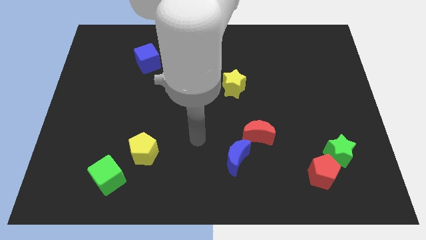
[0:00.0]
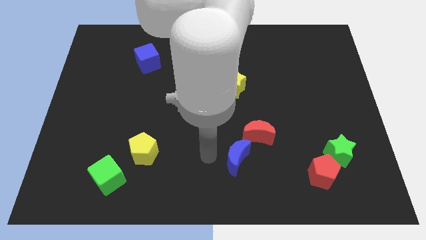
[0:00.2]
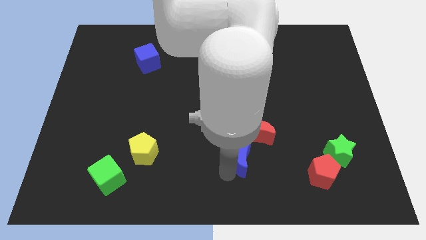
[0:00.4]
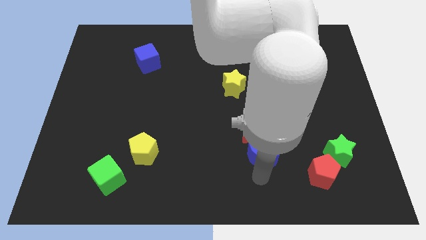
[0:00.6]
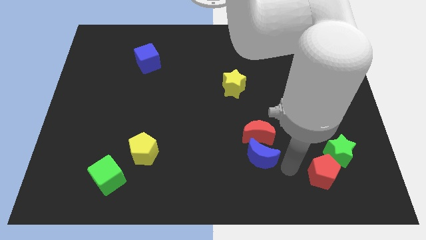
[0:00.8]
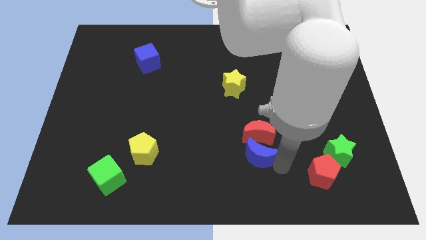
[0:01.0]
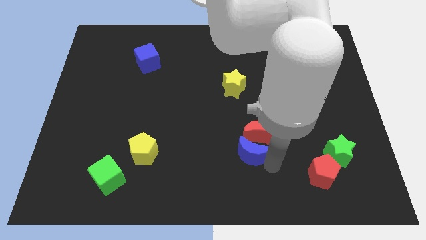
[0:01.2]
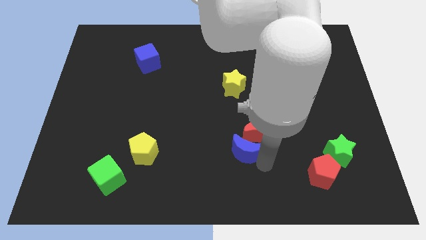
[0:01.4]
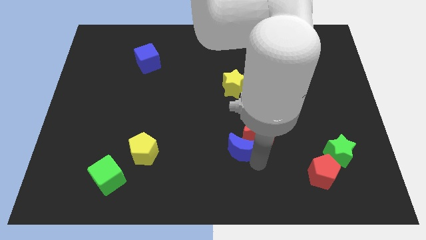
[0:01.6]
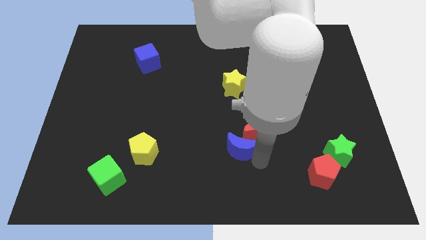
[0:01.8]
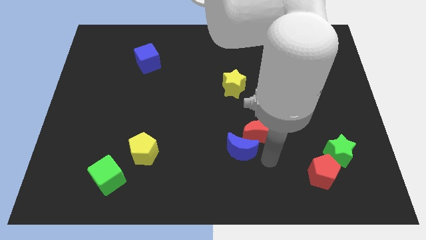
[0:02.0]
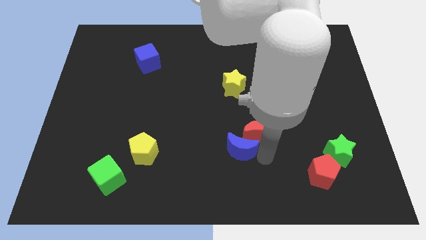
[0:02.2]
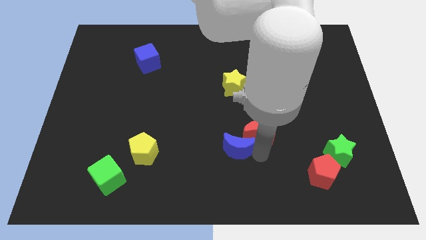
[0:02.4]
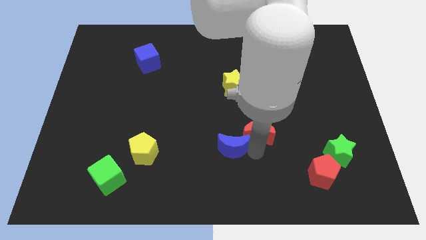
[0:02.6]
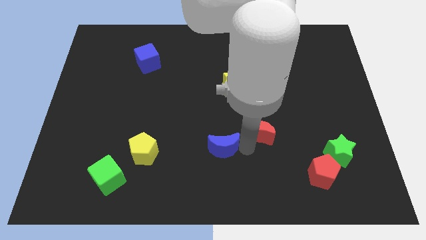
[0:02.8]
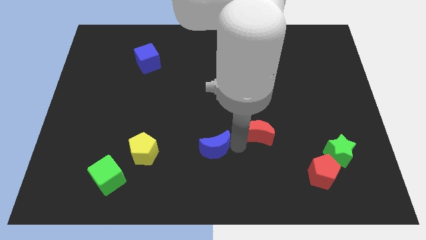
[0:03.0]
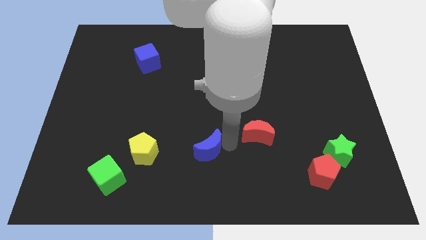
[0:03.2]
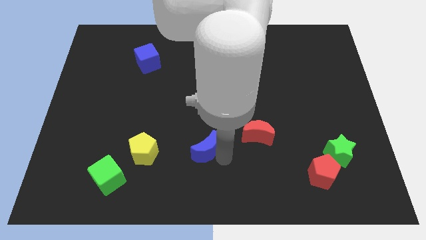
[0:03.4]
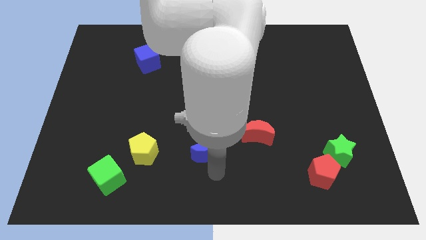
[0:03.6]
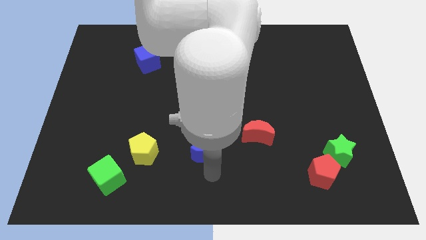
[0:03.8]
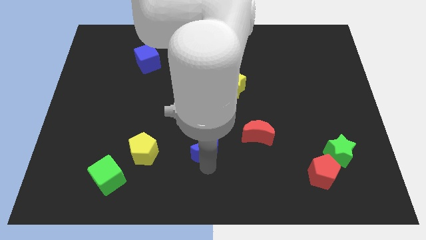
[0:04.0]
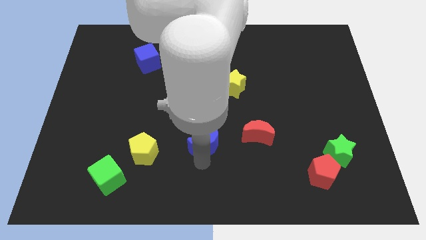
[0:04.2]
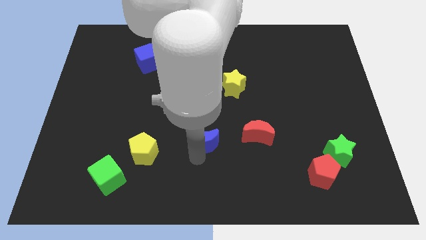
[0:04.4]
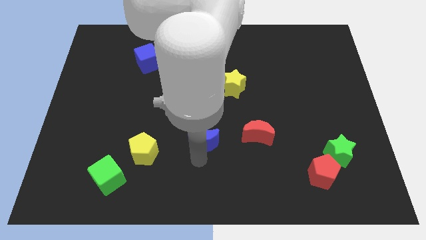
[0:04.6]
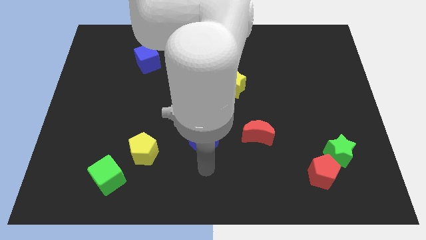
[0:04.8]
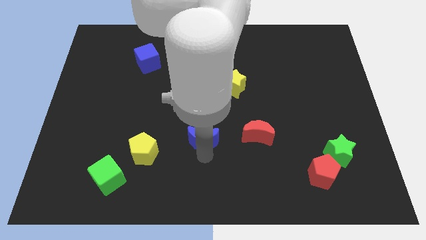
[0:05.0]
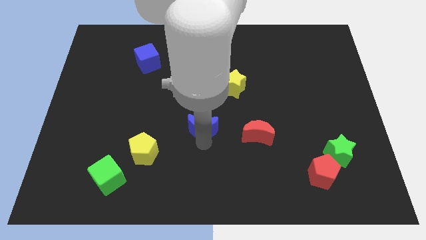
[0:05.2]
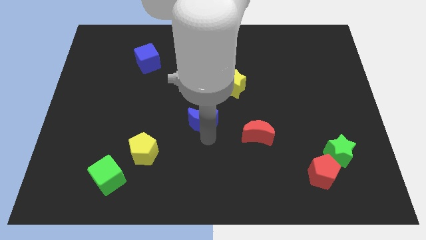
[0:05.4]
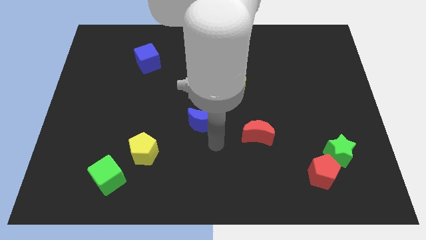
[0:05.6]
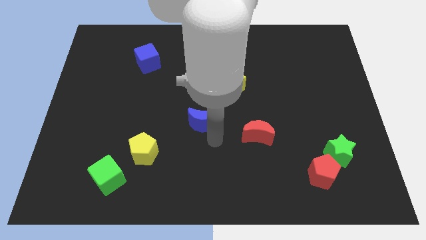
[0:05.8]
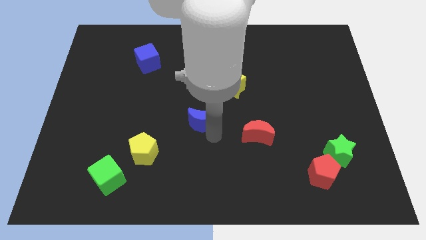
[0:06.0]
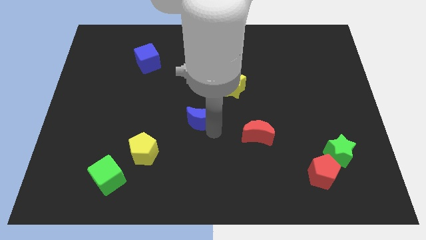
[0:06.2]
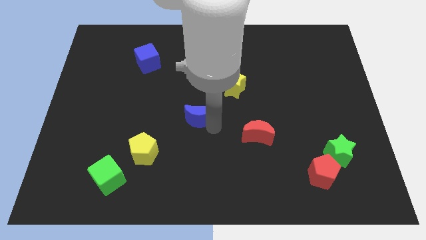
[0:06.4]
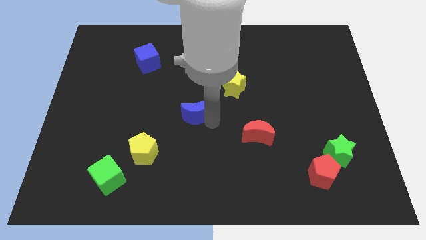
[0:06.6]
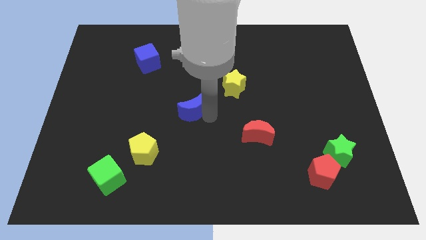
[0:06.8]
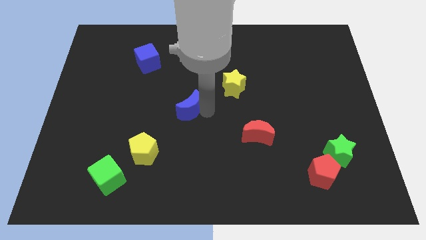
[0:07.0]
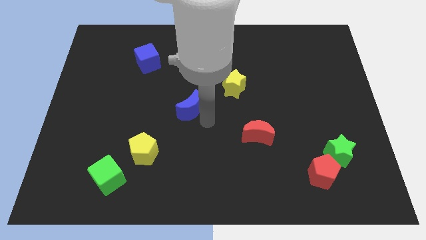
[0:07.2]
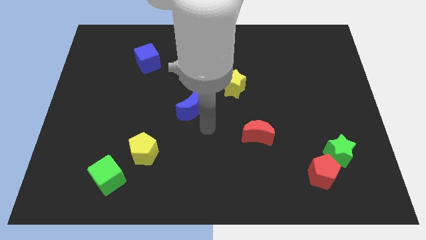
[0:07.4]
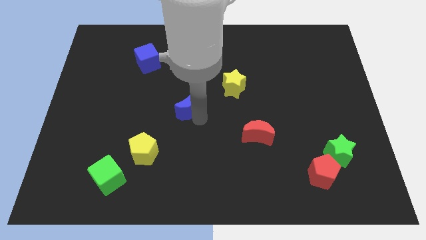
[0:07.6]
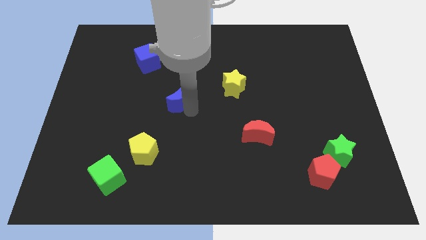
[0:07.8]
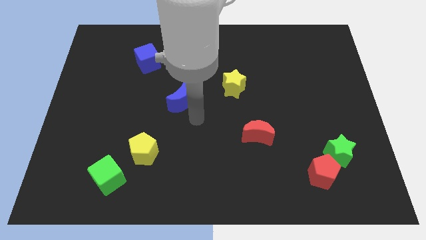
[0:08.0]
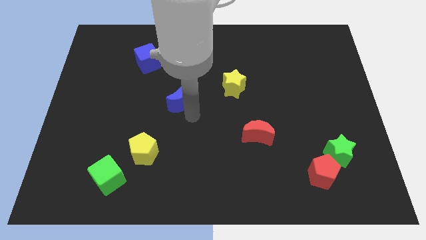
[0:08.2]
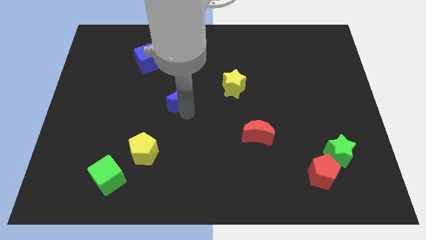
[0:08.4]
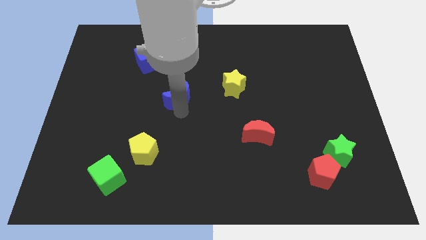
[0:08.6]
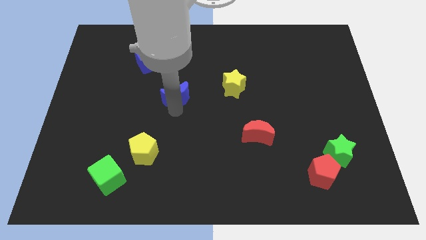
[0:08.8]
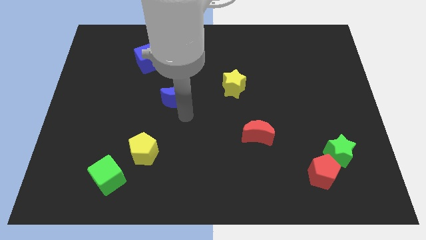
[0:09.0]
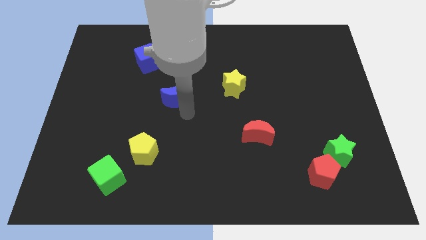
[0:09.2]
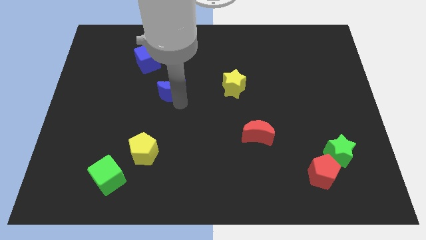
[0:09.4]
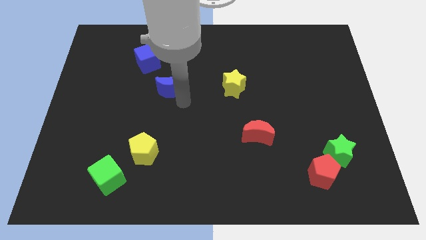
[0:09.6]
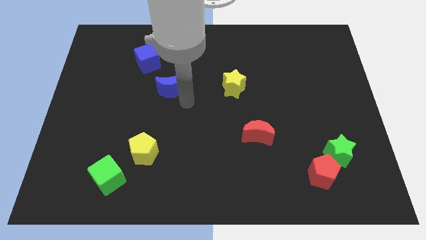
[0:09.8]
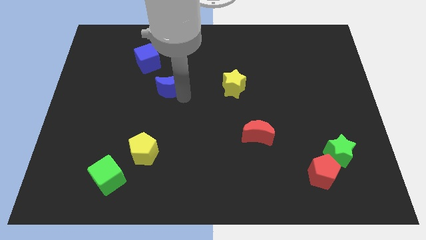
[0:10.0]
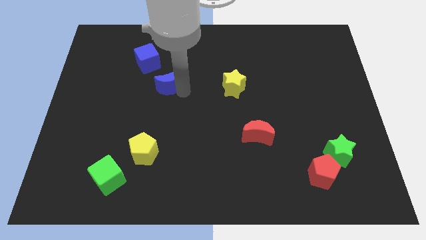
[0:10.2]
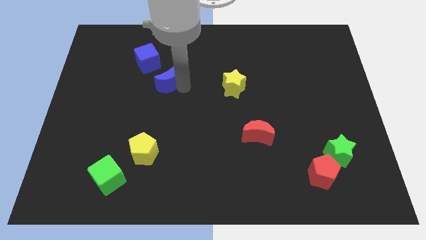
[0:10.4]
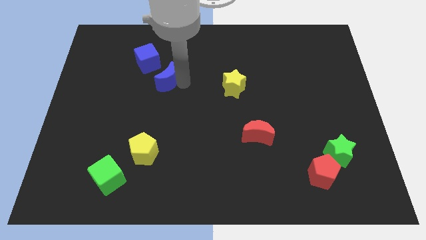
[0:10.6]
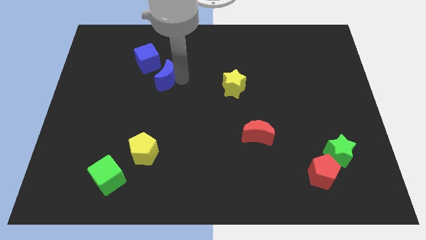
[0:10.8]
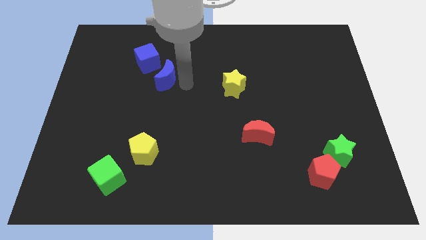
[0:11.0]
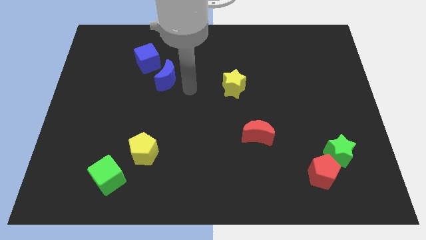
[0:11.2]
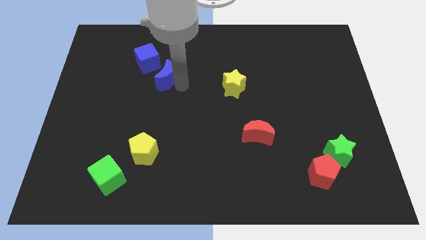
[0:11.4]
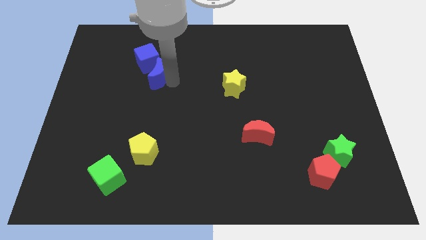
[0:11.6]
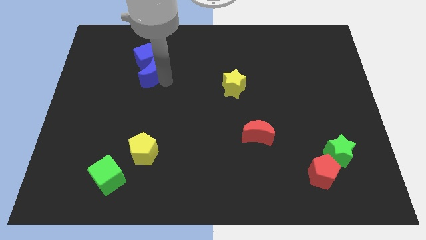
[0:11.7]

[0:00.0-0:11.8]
move the blue moon to the blue cube

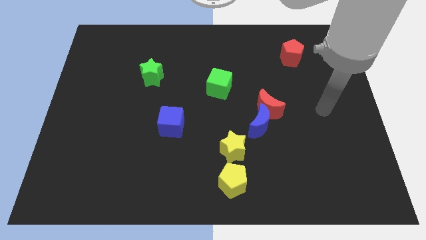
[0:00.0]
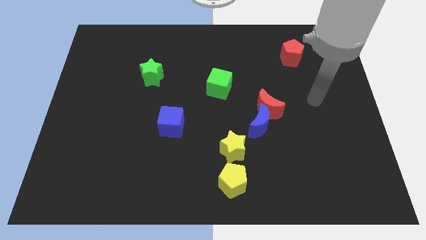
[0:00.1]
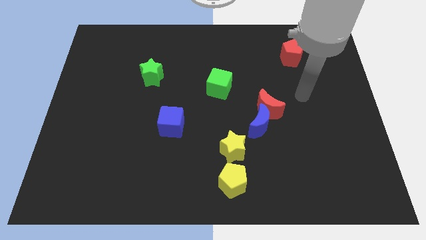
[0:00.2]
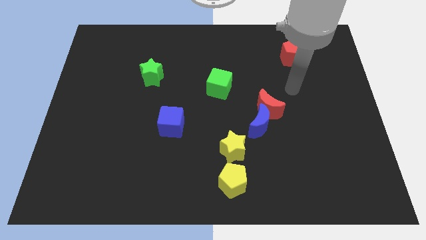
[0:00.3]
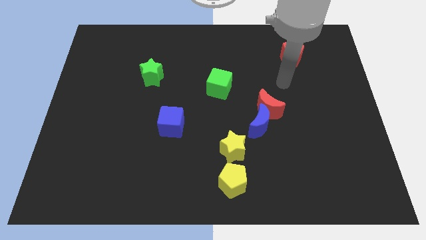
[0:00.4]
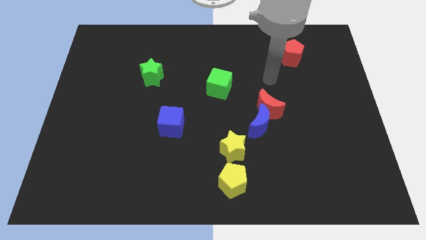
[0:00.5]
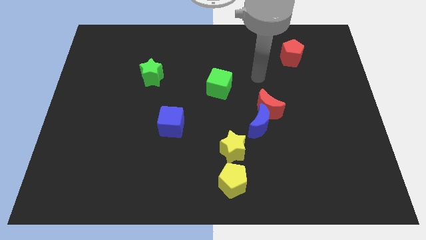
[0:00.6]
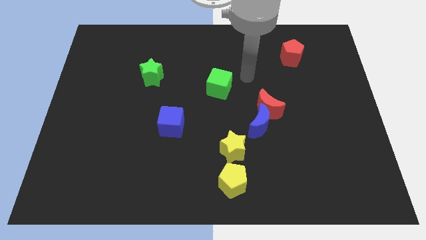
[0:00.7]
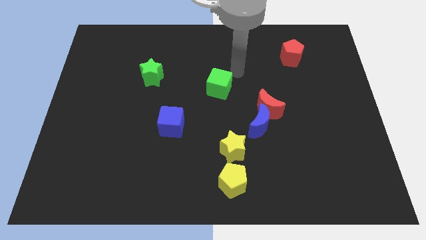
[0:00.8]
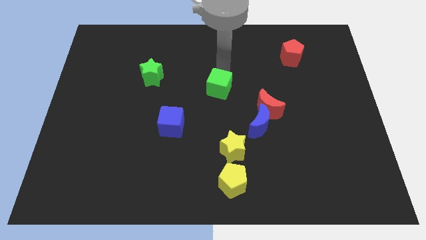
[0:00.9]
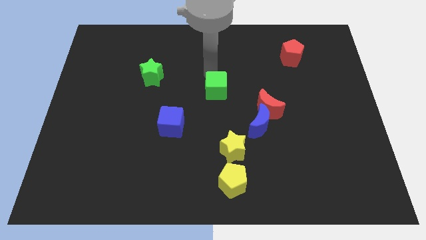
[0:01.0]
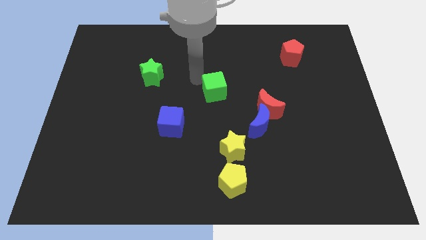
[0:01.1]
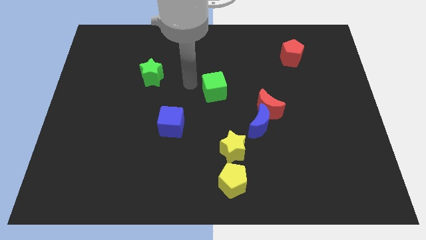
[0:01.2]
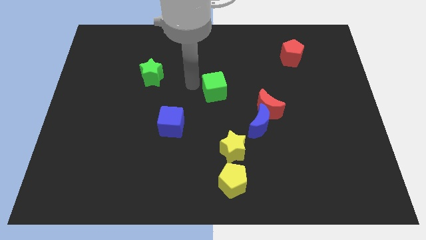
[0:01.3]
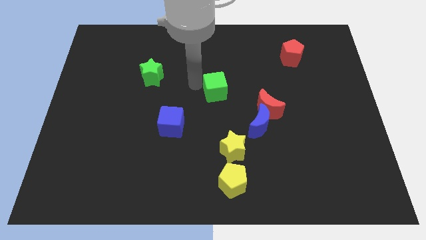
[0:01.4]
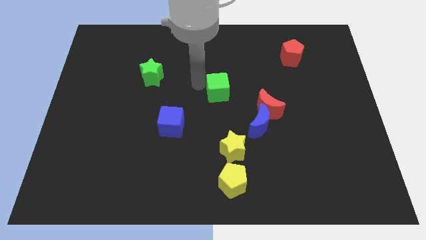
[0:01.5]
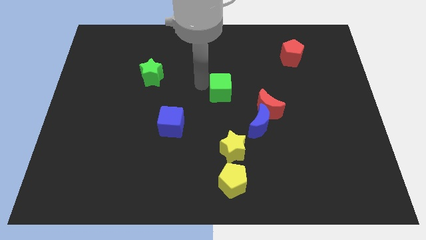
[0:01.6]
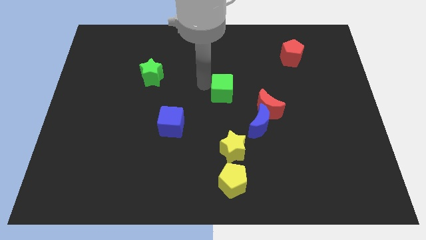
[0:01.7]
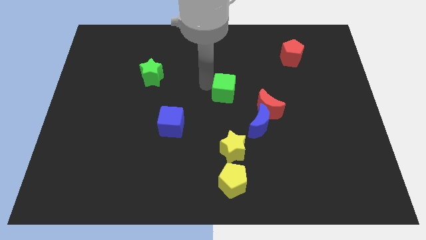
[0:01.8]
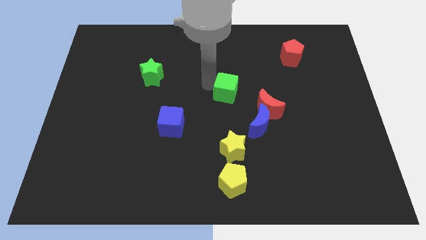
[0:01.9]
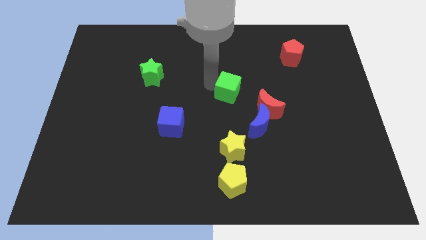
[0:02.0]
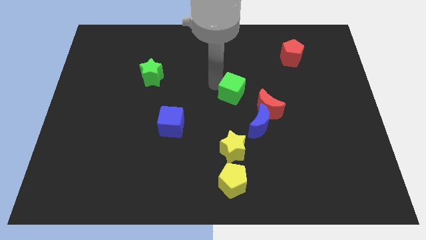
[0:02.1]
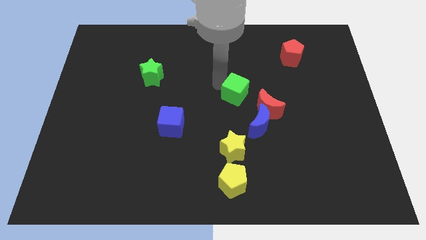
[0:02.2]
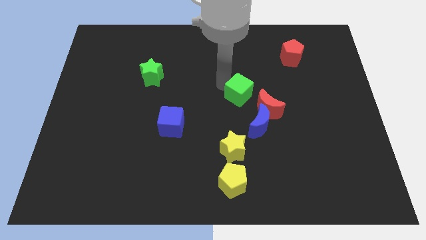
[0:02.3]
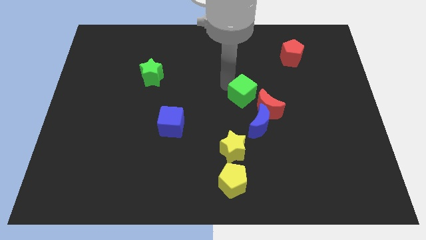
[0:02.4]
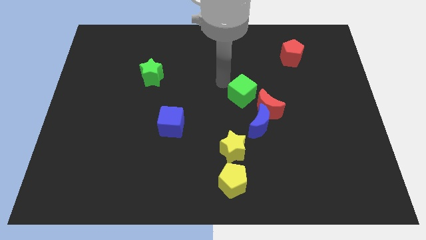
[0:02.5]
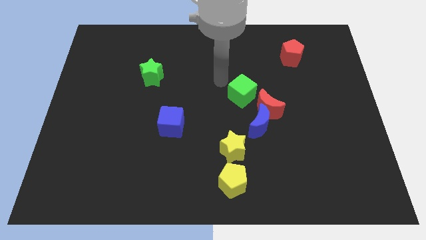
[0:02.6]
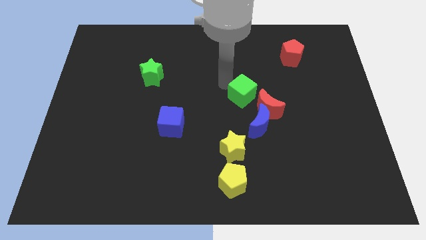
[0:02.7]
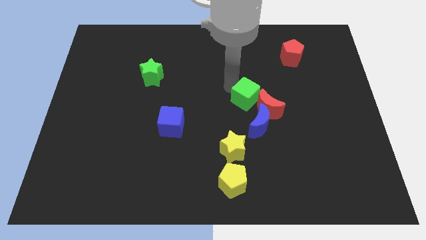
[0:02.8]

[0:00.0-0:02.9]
move the green cube close to the red moon
